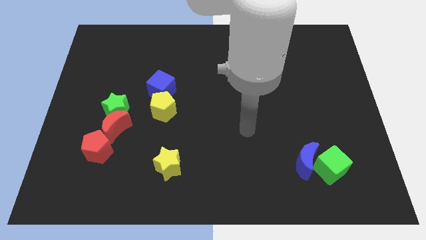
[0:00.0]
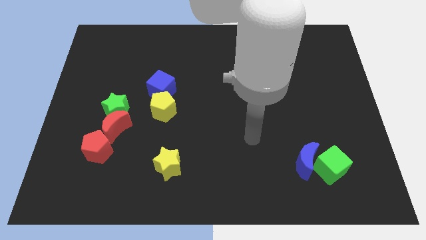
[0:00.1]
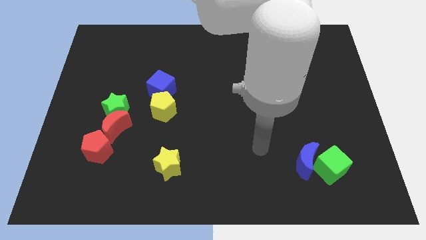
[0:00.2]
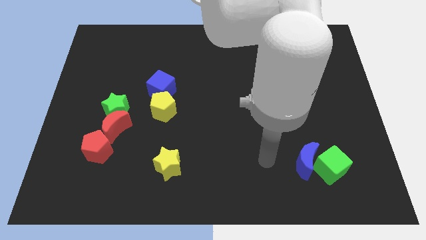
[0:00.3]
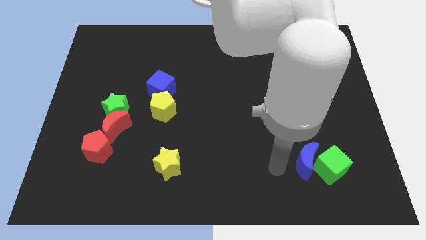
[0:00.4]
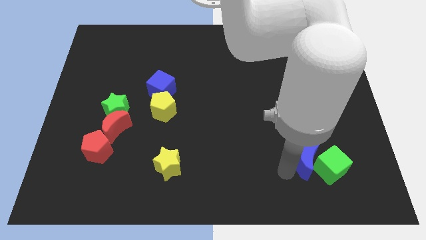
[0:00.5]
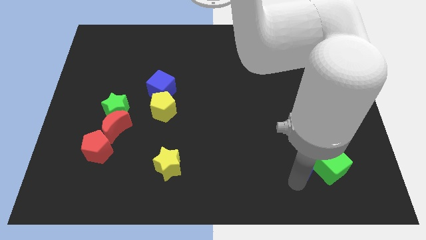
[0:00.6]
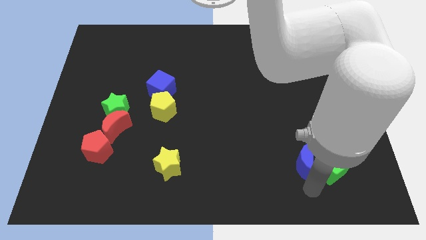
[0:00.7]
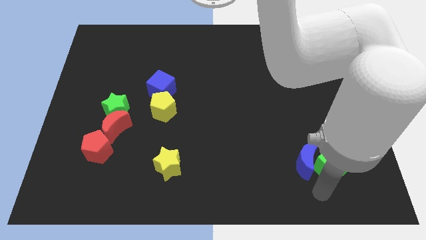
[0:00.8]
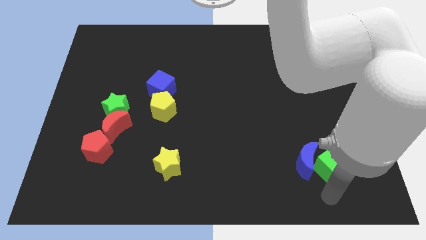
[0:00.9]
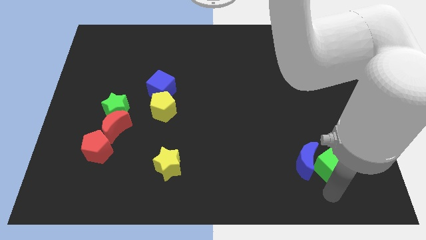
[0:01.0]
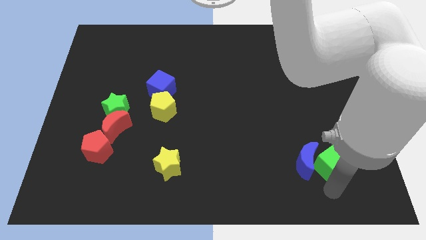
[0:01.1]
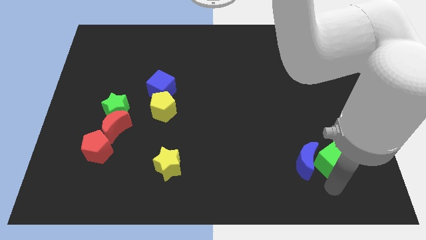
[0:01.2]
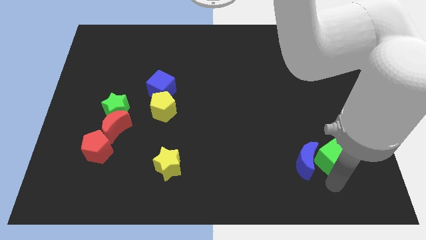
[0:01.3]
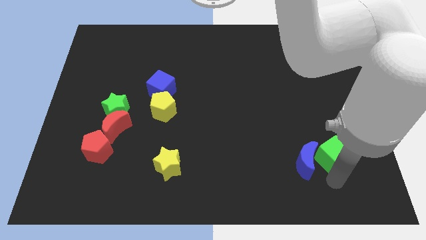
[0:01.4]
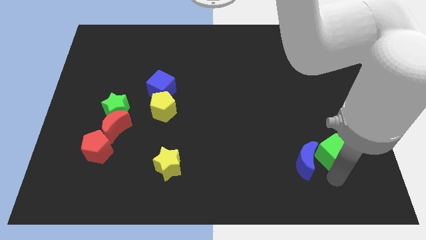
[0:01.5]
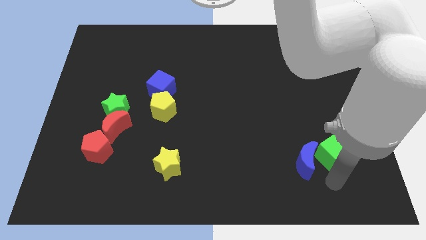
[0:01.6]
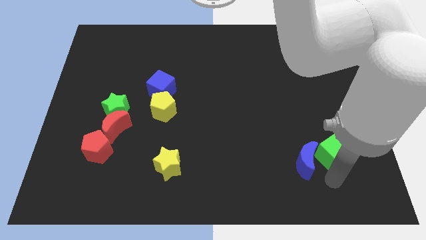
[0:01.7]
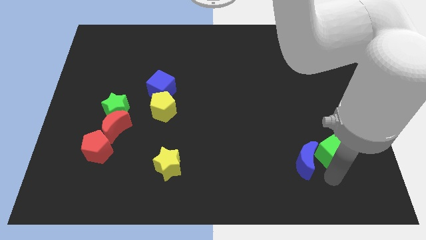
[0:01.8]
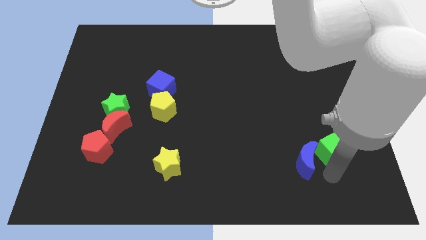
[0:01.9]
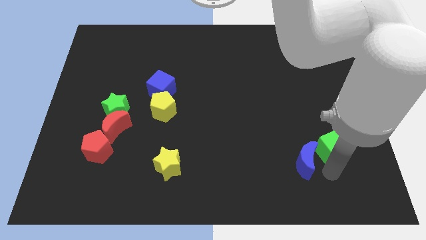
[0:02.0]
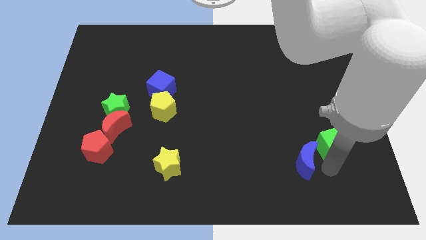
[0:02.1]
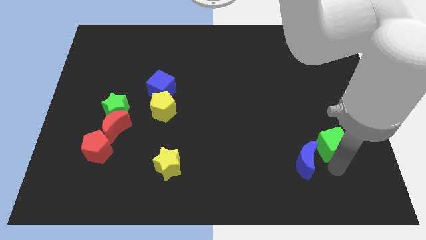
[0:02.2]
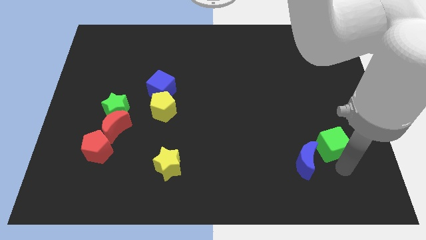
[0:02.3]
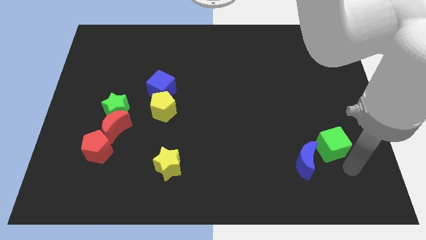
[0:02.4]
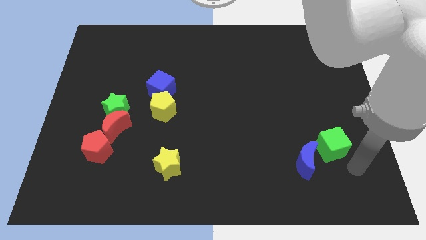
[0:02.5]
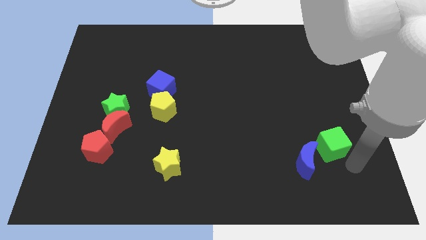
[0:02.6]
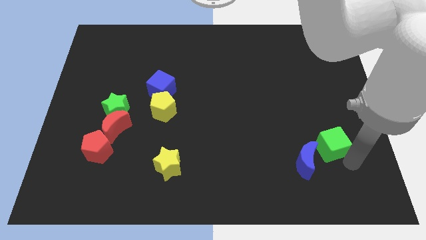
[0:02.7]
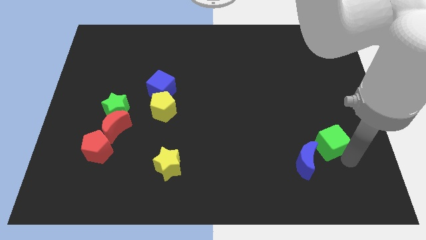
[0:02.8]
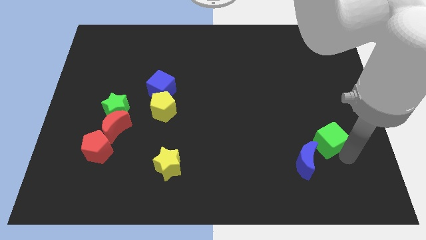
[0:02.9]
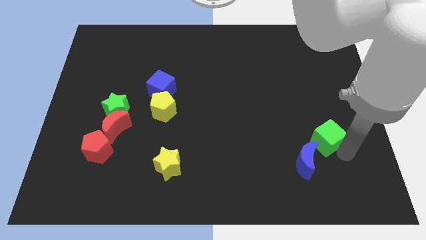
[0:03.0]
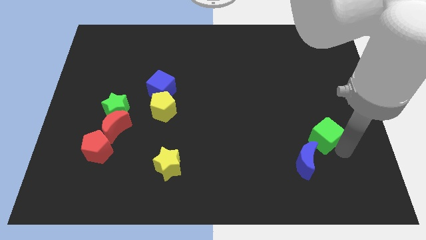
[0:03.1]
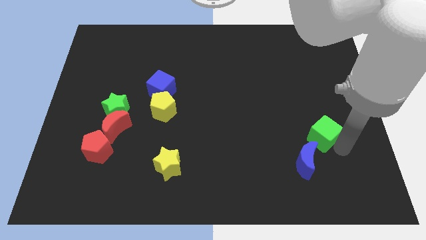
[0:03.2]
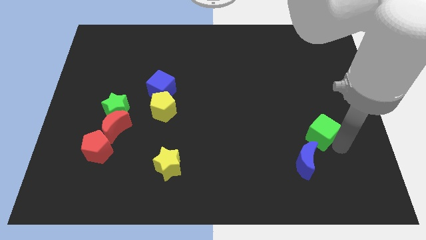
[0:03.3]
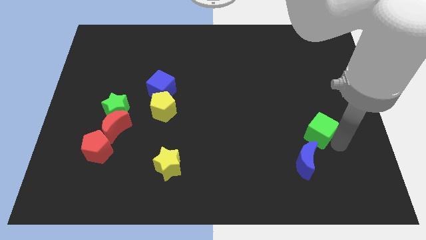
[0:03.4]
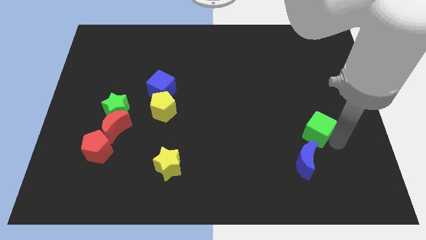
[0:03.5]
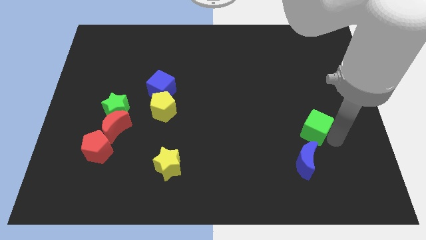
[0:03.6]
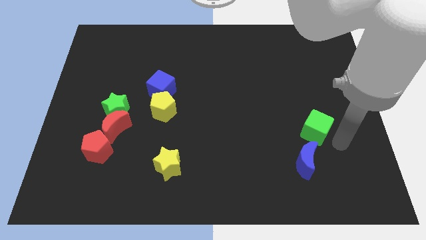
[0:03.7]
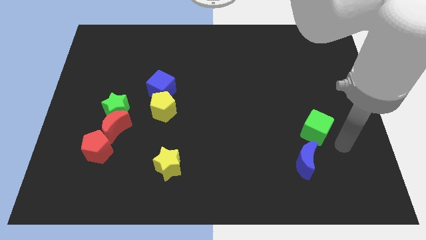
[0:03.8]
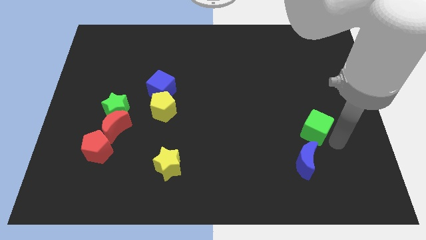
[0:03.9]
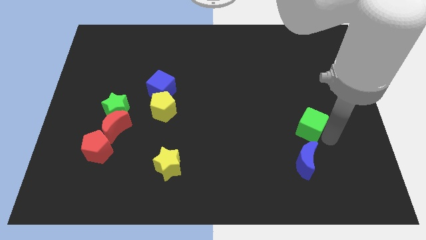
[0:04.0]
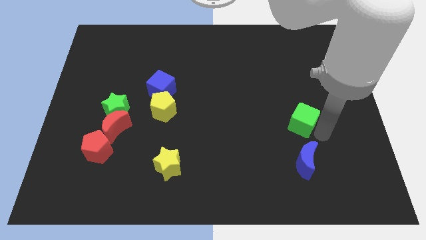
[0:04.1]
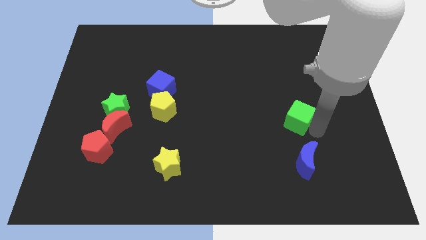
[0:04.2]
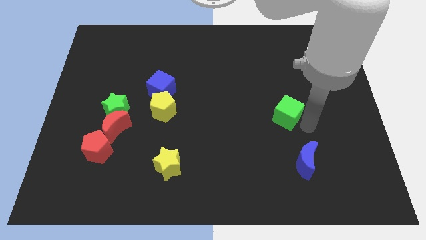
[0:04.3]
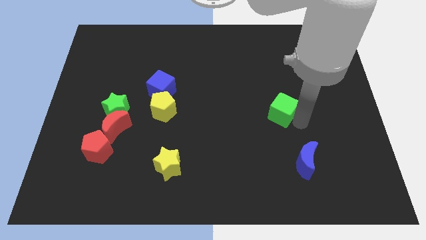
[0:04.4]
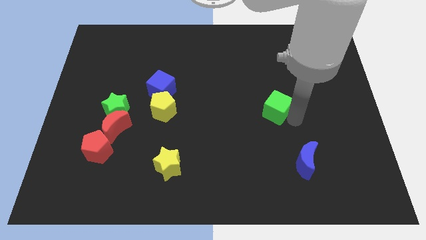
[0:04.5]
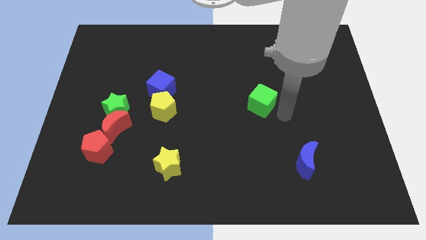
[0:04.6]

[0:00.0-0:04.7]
move the green cube upwards and left

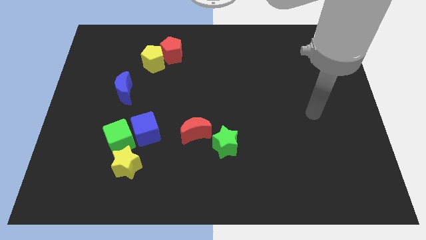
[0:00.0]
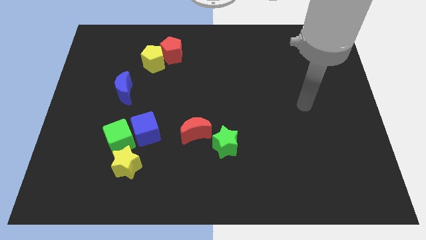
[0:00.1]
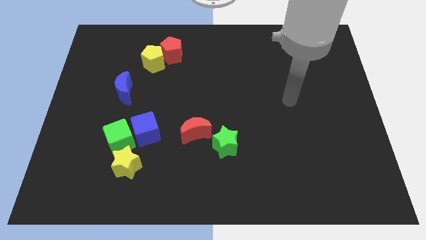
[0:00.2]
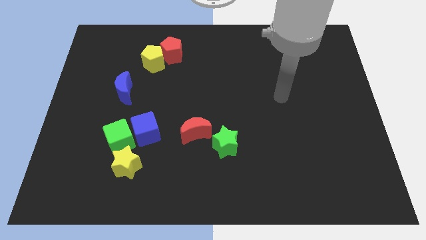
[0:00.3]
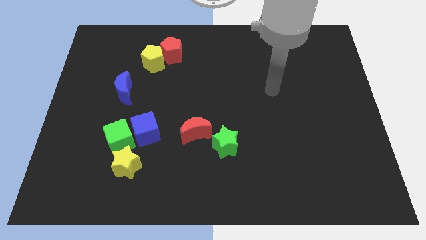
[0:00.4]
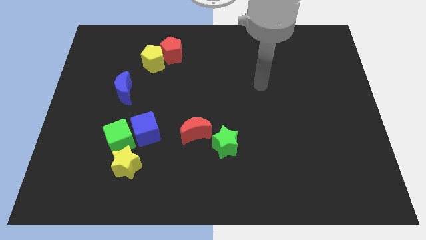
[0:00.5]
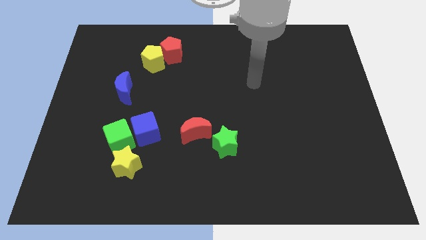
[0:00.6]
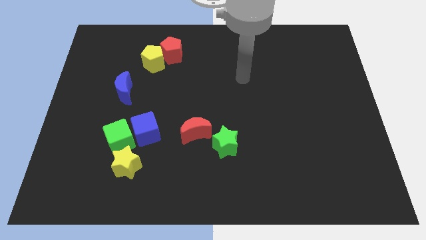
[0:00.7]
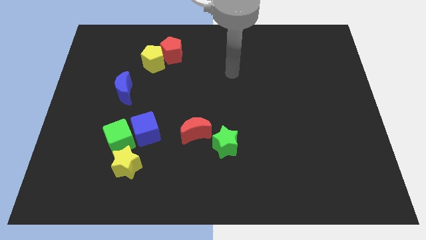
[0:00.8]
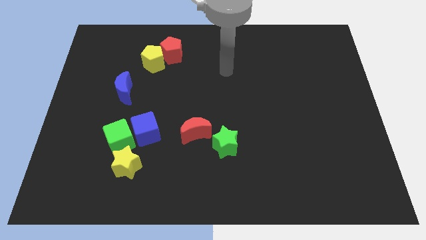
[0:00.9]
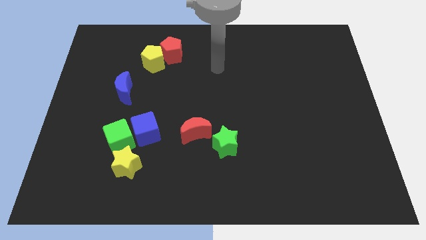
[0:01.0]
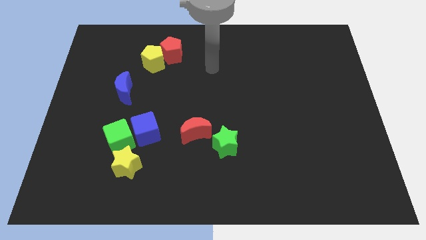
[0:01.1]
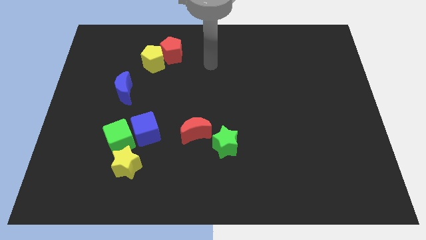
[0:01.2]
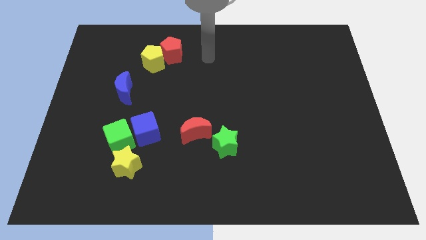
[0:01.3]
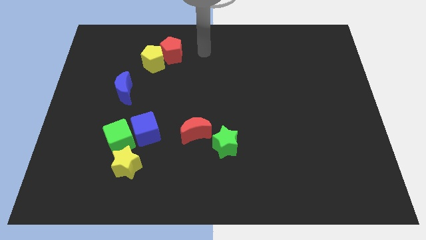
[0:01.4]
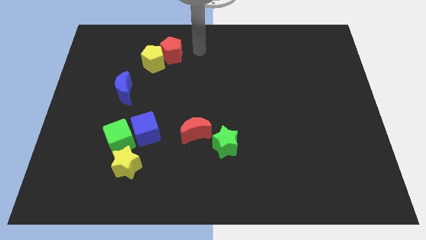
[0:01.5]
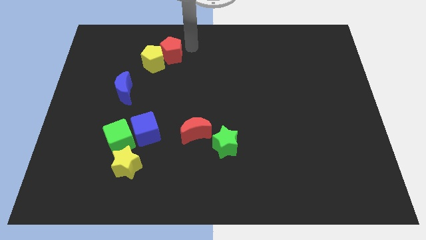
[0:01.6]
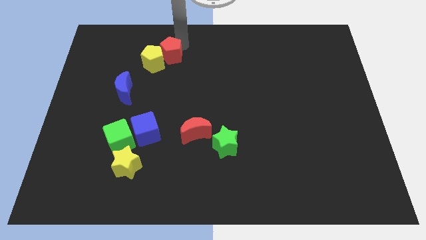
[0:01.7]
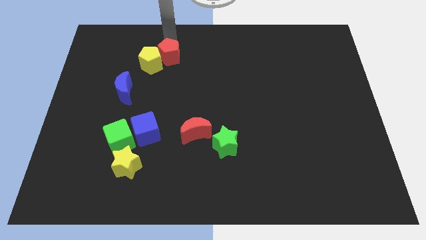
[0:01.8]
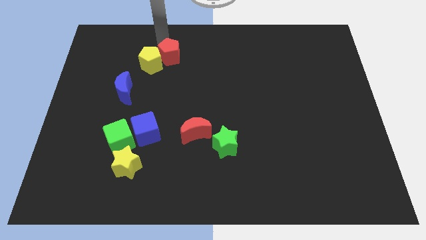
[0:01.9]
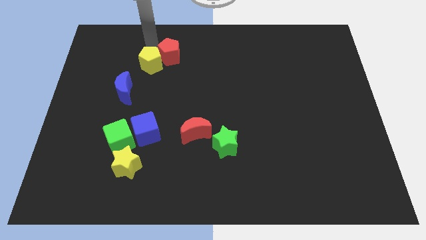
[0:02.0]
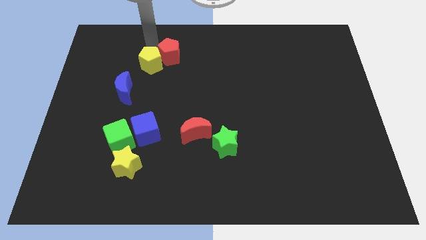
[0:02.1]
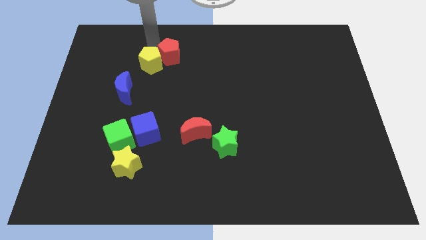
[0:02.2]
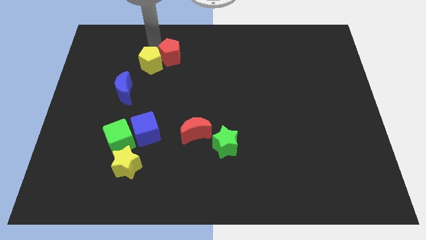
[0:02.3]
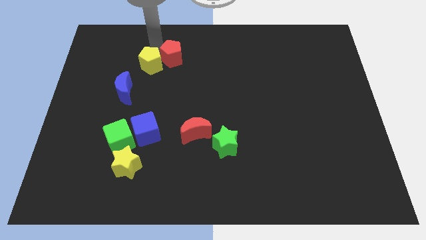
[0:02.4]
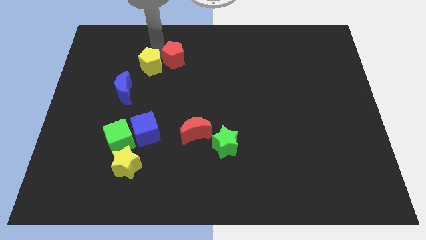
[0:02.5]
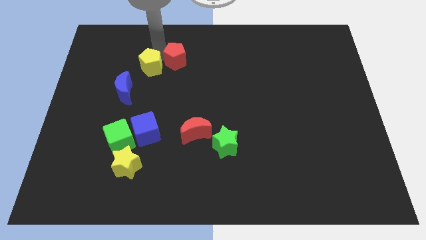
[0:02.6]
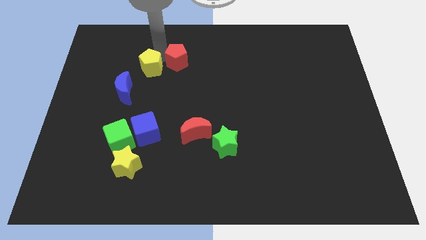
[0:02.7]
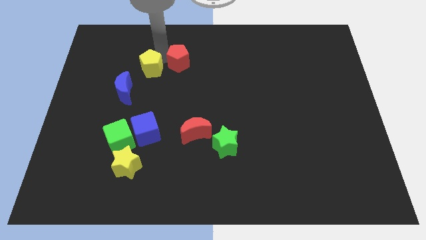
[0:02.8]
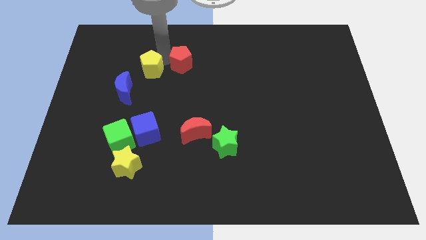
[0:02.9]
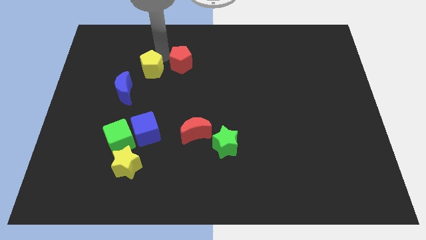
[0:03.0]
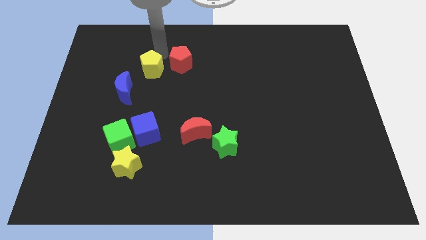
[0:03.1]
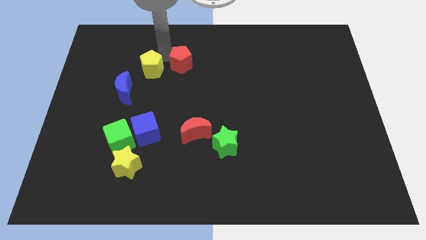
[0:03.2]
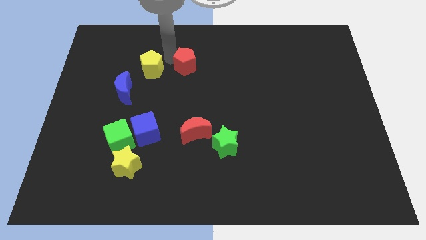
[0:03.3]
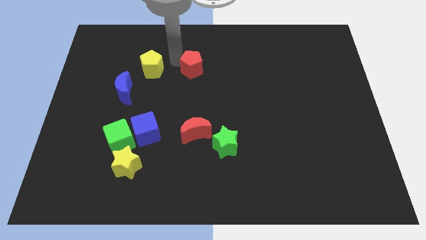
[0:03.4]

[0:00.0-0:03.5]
push the red pentagon a little downwards and then right
